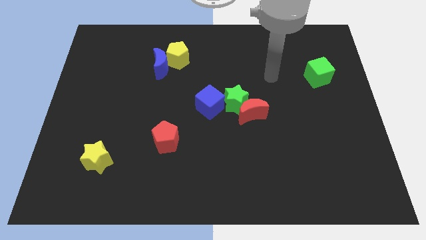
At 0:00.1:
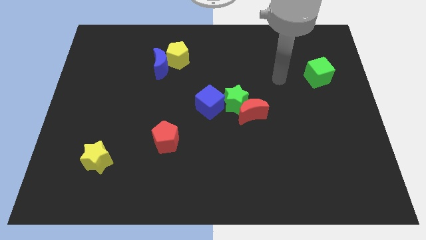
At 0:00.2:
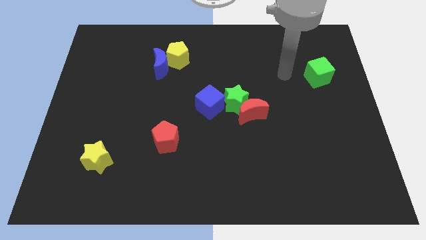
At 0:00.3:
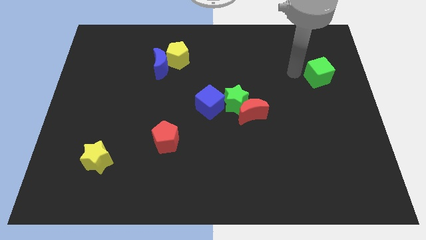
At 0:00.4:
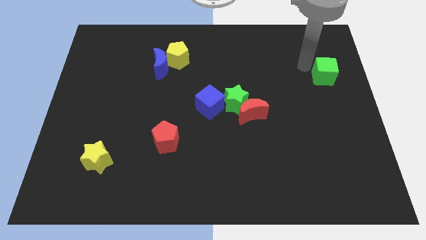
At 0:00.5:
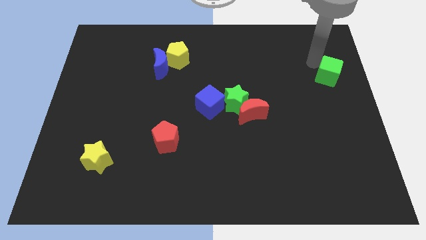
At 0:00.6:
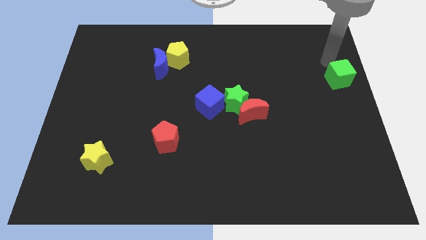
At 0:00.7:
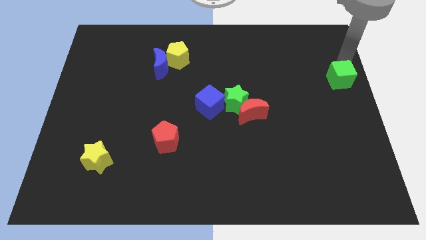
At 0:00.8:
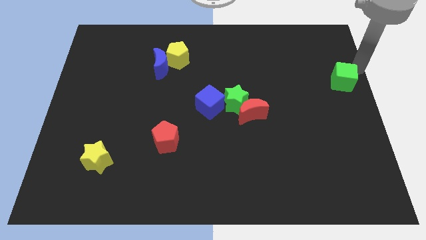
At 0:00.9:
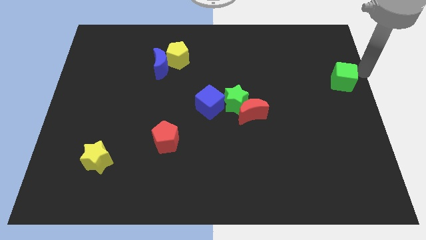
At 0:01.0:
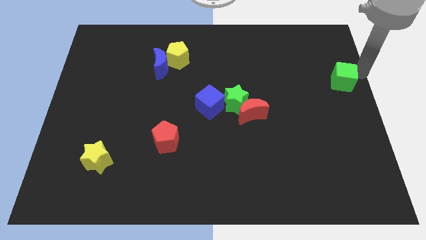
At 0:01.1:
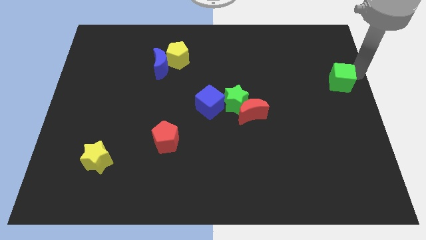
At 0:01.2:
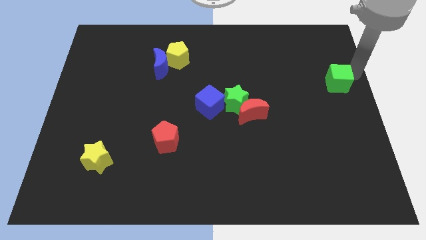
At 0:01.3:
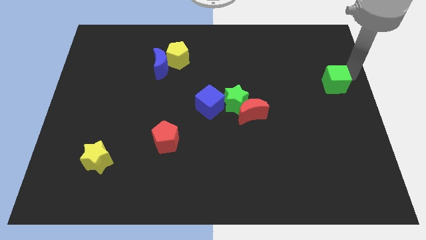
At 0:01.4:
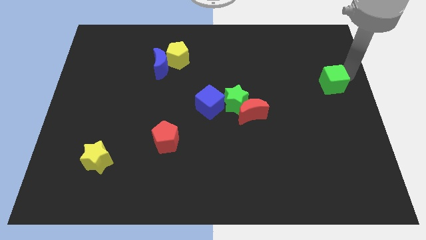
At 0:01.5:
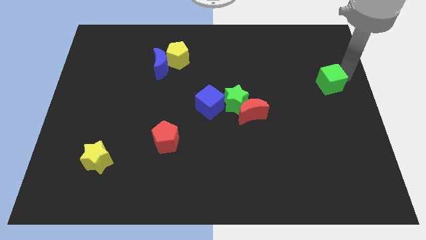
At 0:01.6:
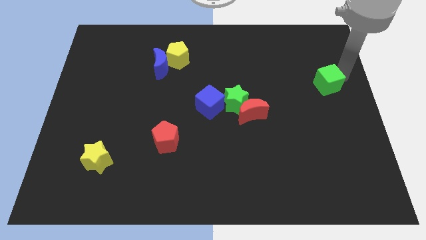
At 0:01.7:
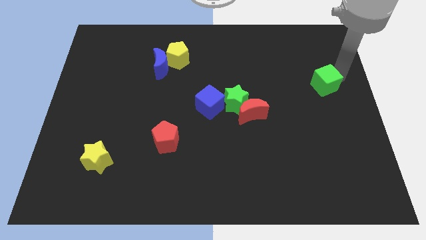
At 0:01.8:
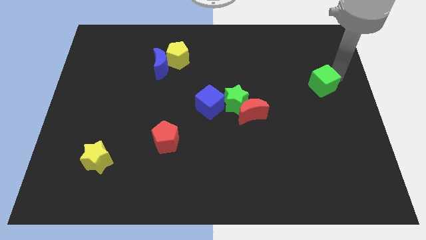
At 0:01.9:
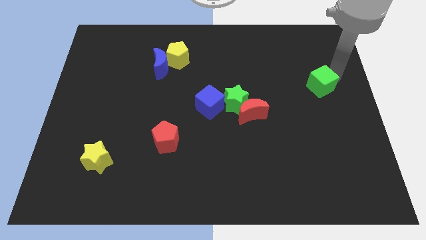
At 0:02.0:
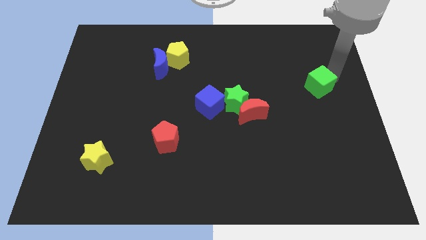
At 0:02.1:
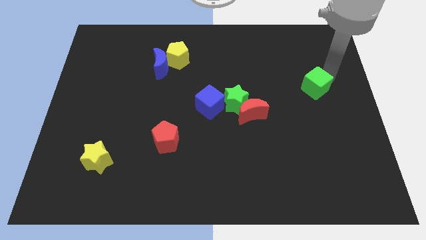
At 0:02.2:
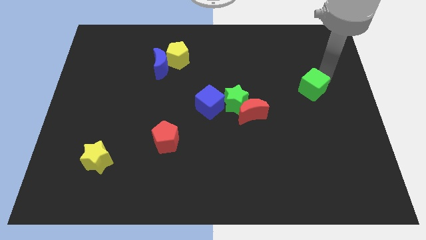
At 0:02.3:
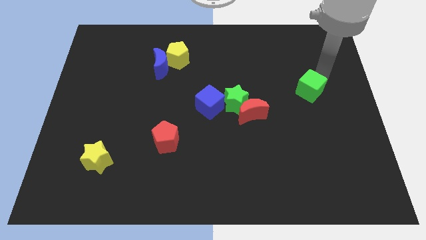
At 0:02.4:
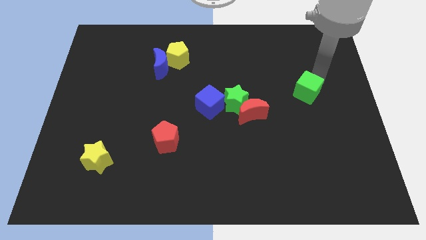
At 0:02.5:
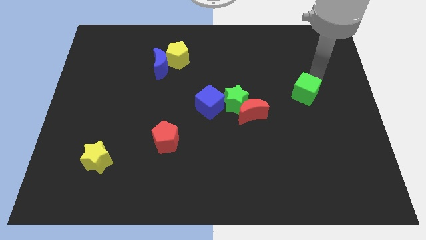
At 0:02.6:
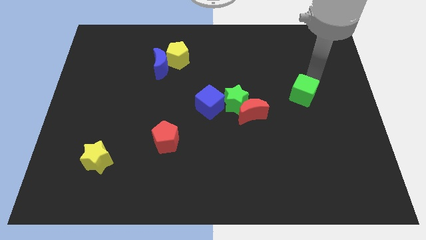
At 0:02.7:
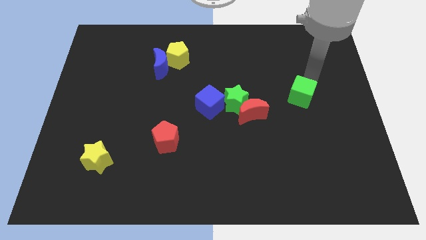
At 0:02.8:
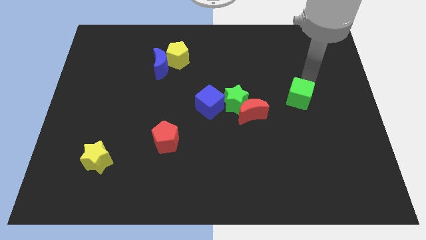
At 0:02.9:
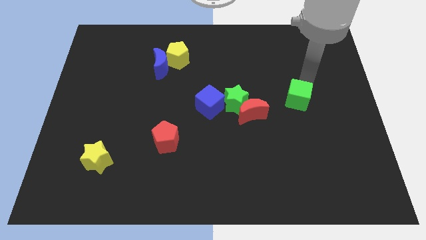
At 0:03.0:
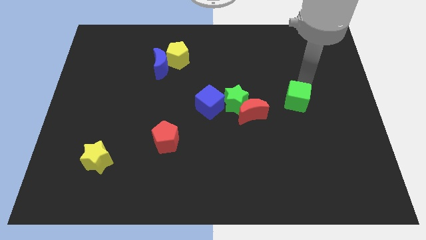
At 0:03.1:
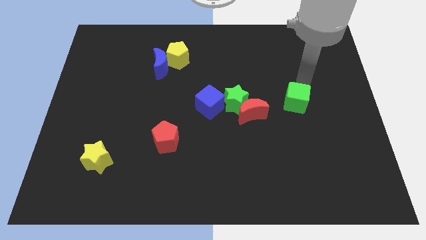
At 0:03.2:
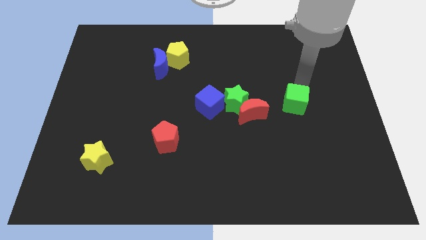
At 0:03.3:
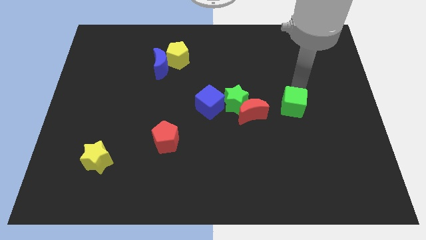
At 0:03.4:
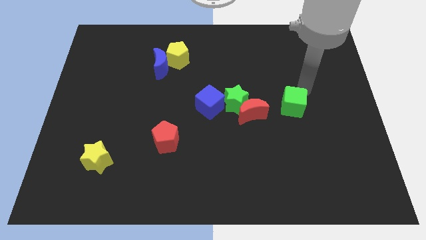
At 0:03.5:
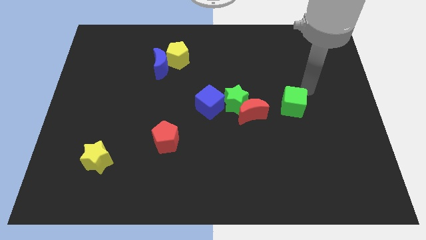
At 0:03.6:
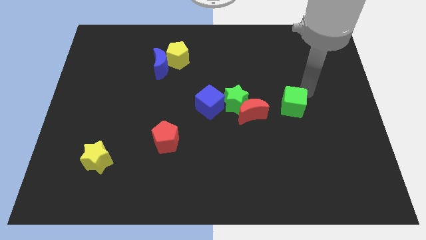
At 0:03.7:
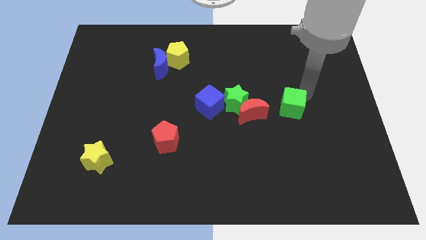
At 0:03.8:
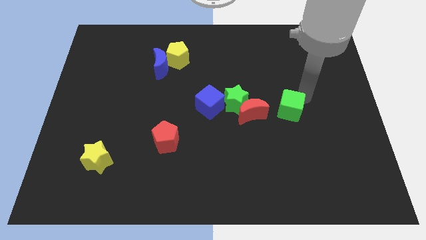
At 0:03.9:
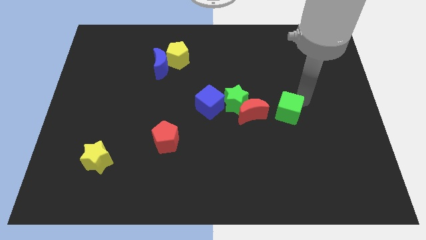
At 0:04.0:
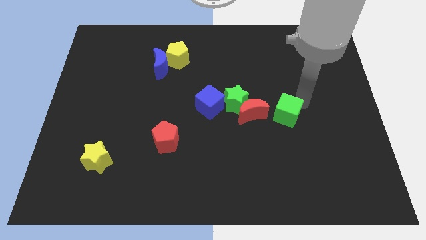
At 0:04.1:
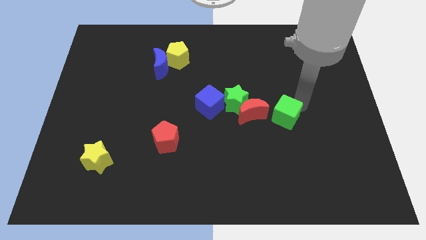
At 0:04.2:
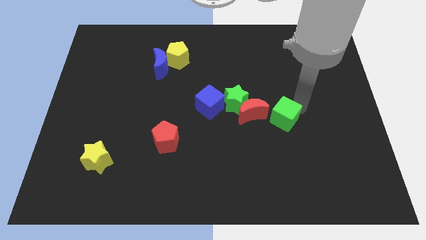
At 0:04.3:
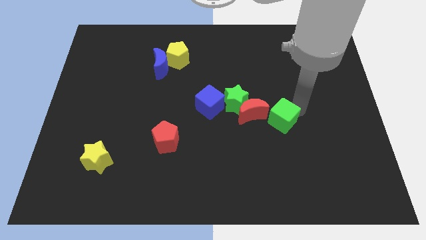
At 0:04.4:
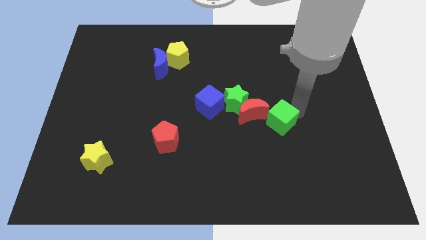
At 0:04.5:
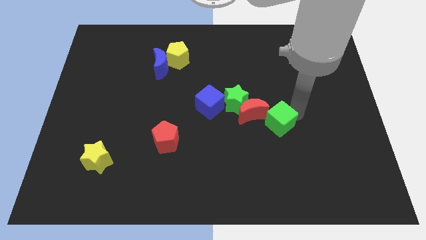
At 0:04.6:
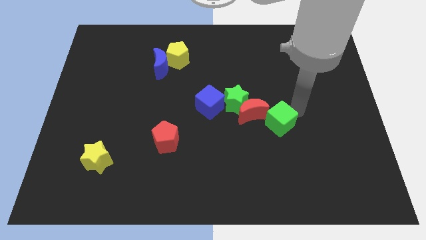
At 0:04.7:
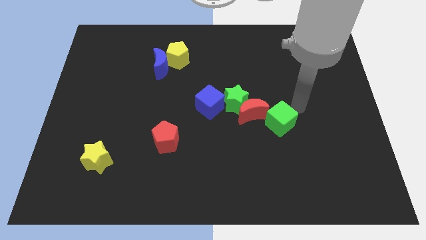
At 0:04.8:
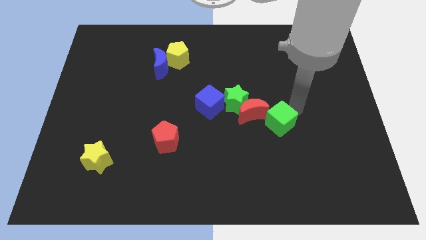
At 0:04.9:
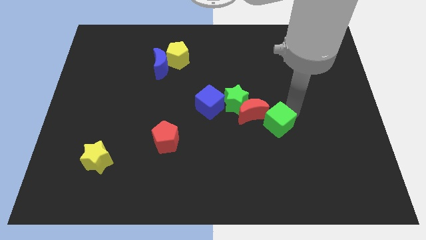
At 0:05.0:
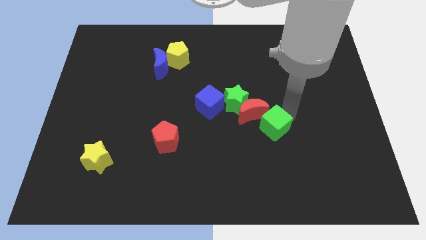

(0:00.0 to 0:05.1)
move the green cube down and then to the left

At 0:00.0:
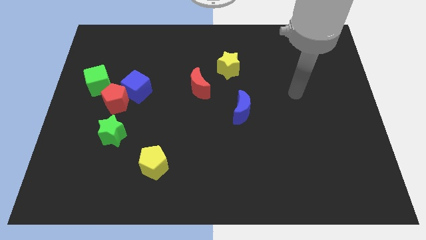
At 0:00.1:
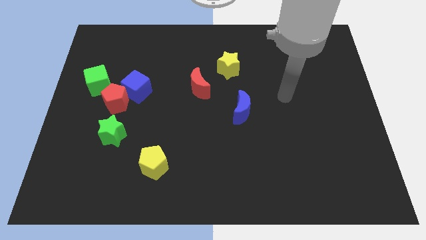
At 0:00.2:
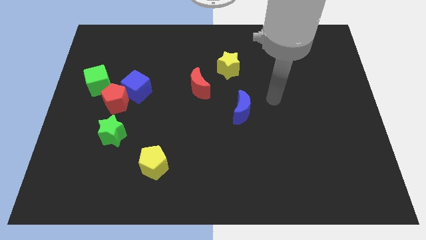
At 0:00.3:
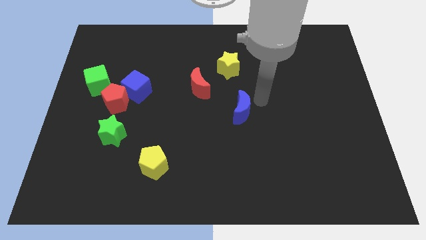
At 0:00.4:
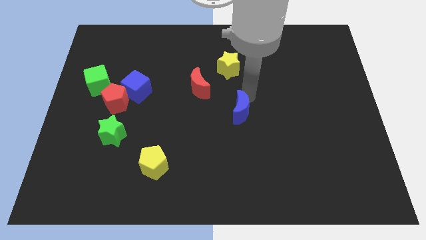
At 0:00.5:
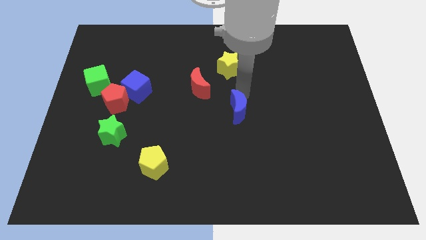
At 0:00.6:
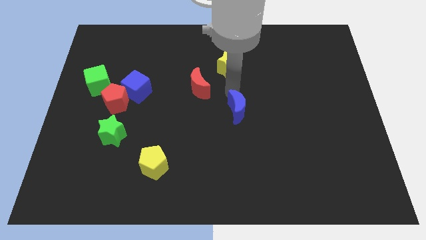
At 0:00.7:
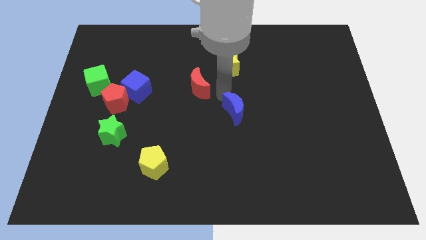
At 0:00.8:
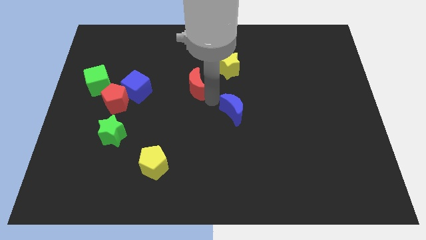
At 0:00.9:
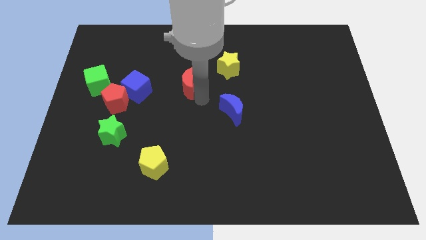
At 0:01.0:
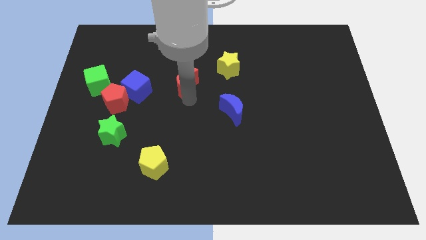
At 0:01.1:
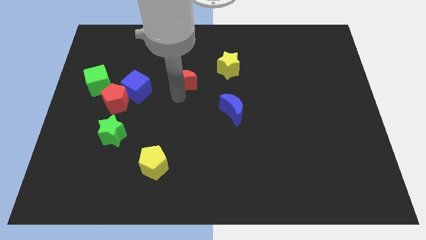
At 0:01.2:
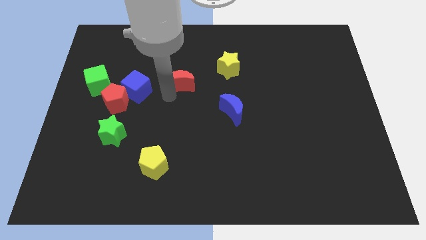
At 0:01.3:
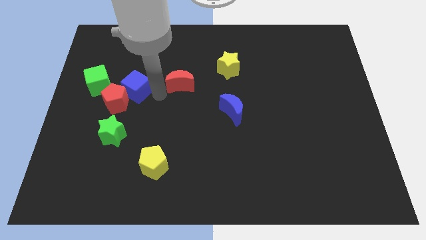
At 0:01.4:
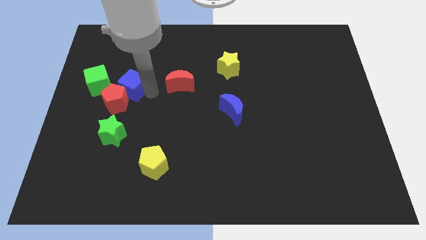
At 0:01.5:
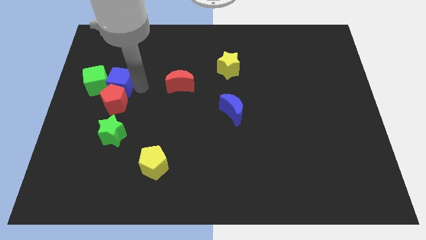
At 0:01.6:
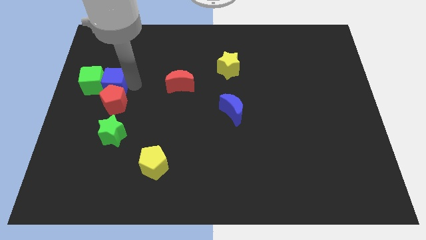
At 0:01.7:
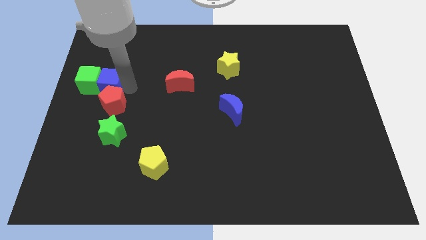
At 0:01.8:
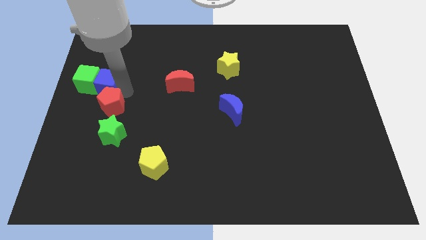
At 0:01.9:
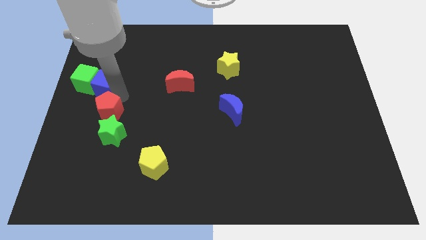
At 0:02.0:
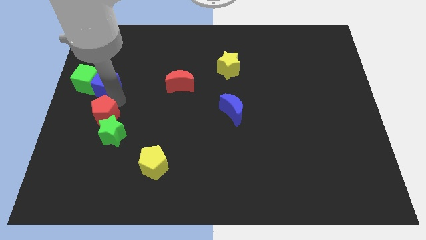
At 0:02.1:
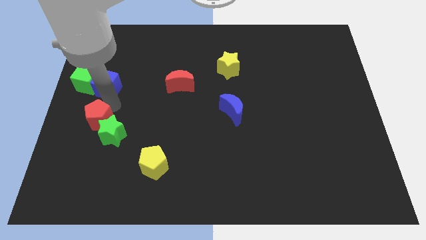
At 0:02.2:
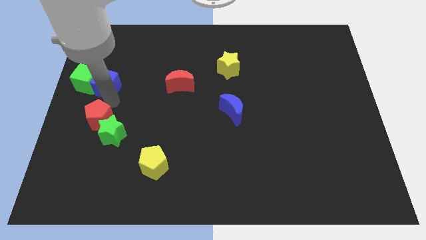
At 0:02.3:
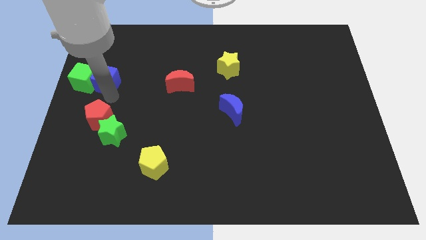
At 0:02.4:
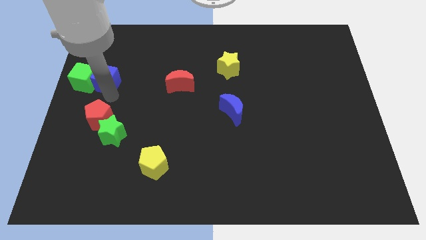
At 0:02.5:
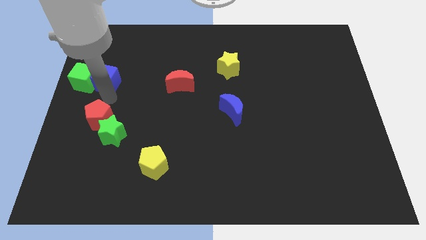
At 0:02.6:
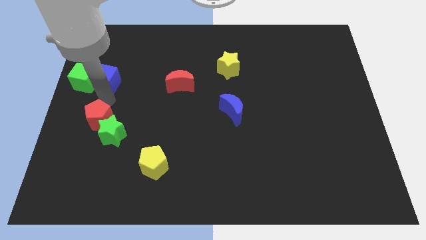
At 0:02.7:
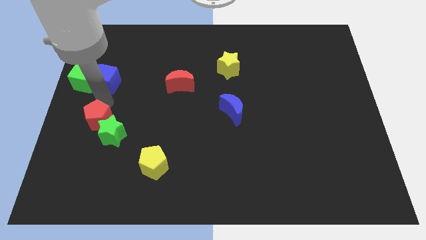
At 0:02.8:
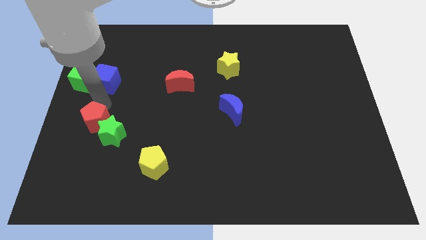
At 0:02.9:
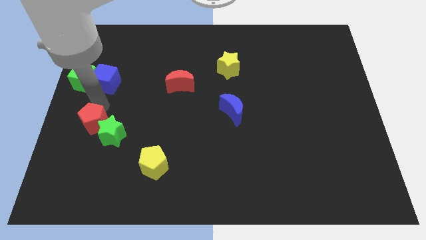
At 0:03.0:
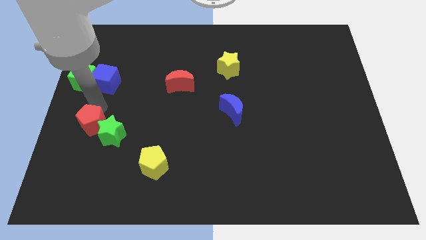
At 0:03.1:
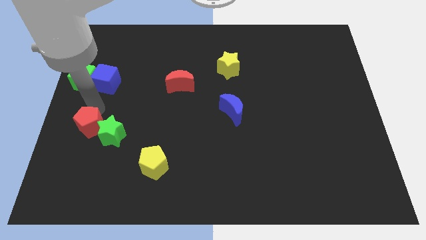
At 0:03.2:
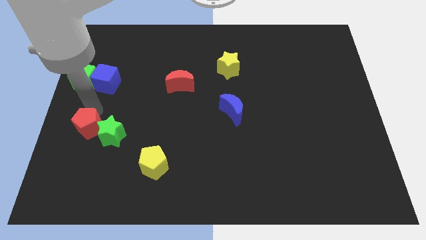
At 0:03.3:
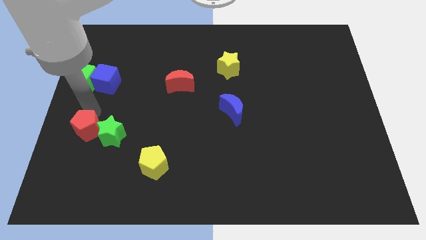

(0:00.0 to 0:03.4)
slide the red pentagon downwards a little bit
